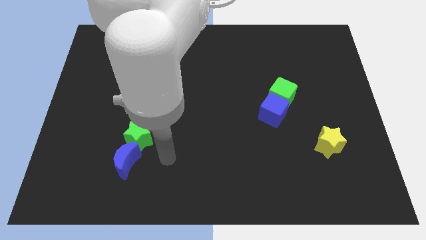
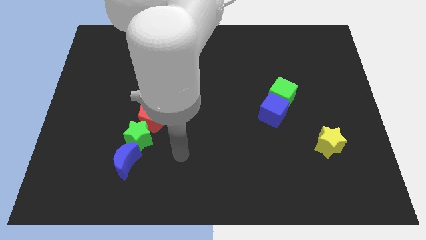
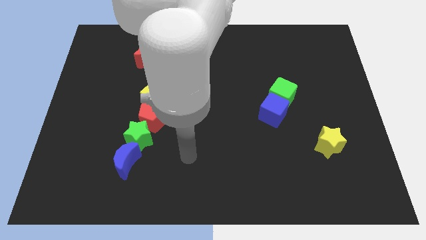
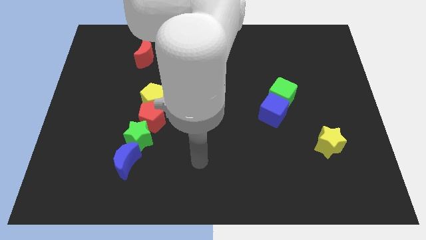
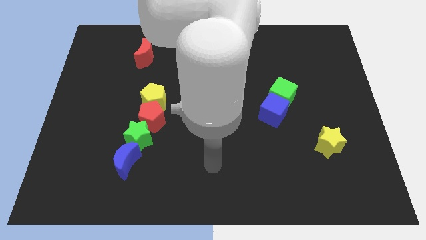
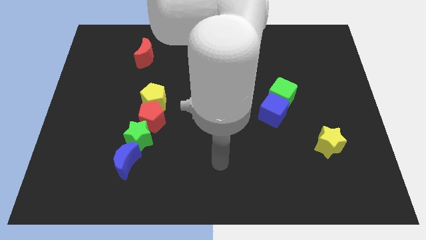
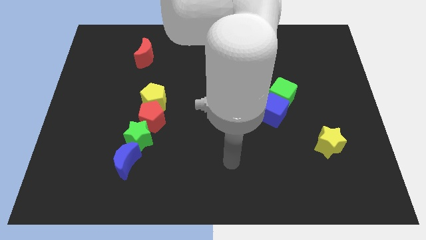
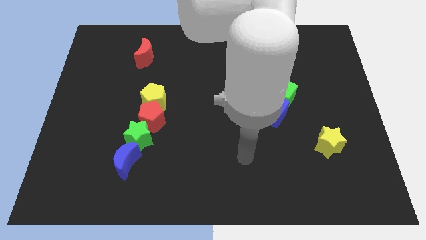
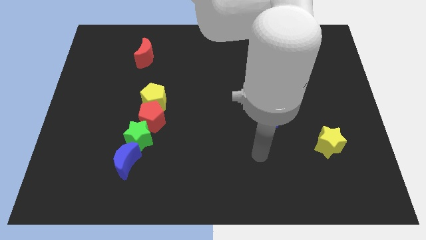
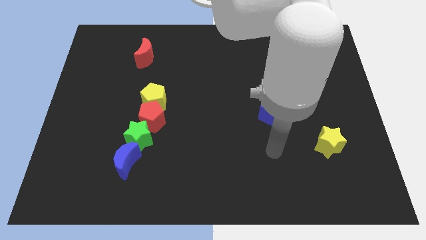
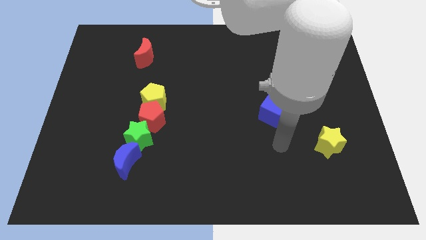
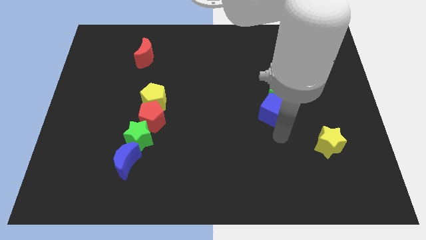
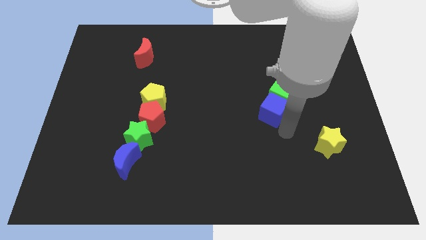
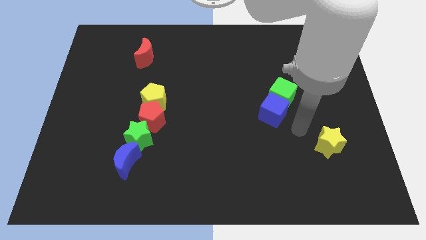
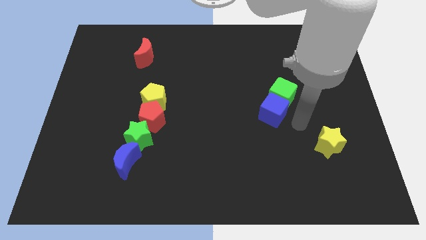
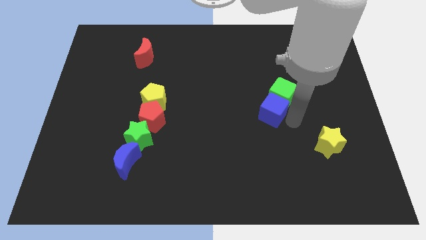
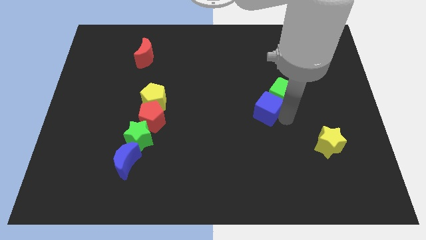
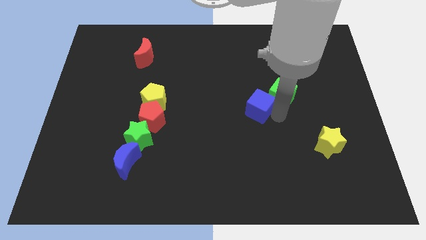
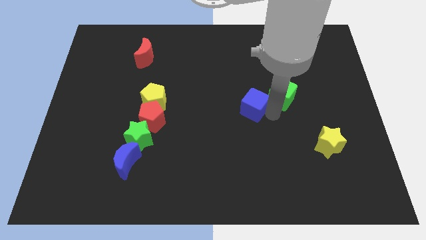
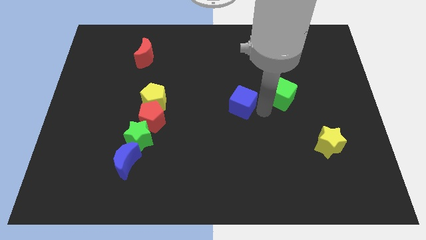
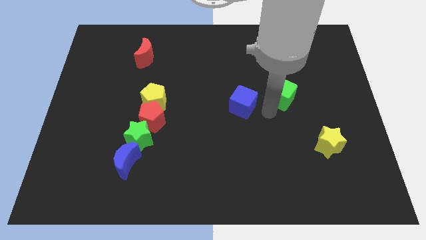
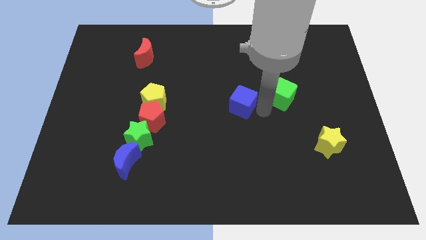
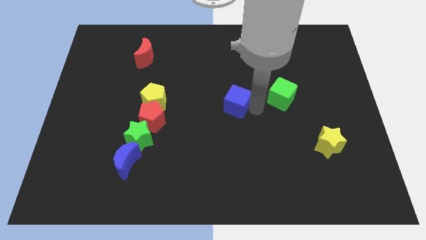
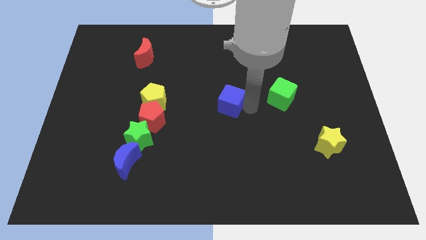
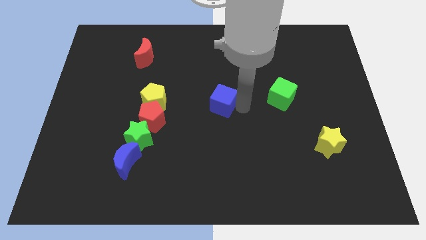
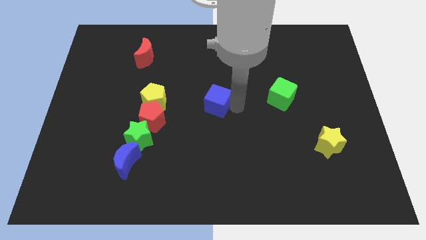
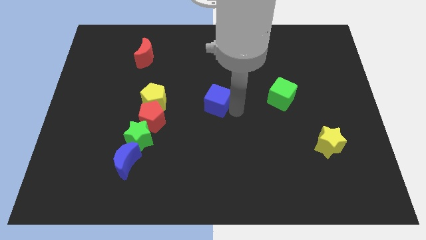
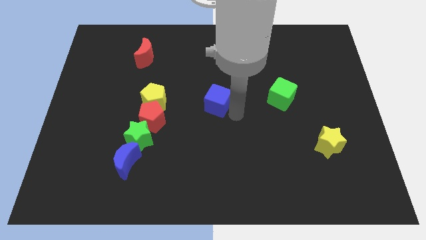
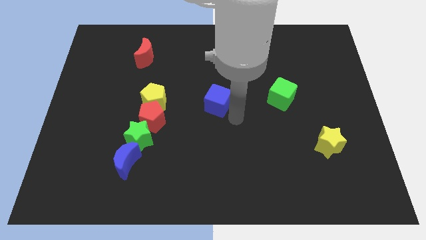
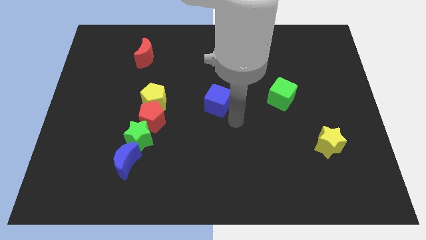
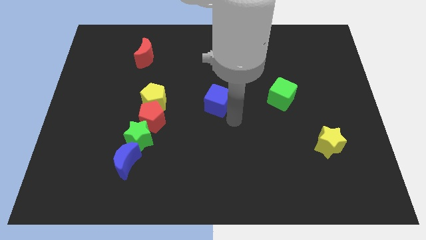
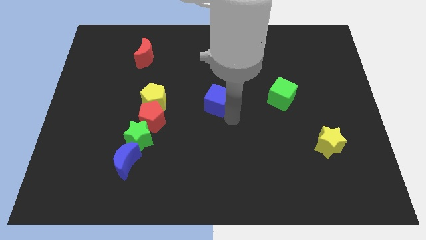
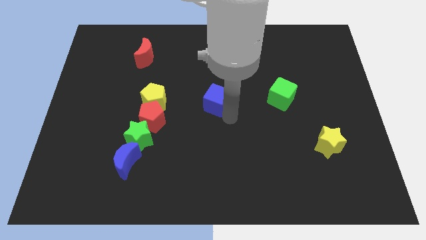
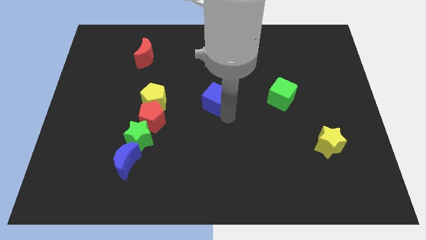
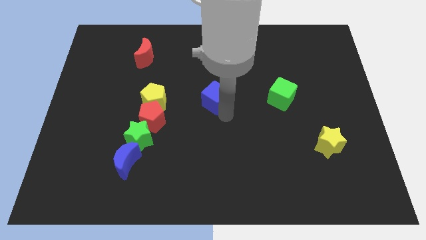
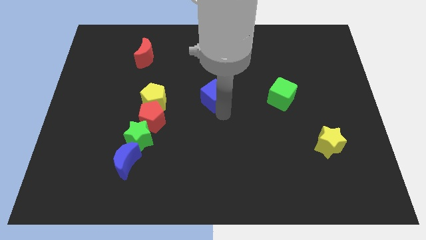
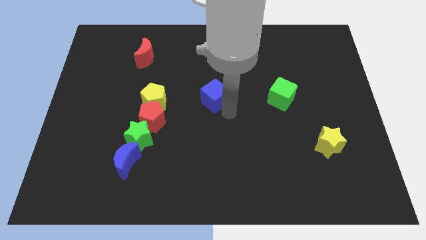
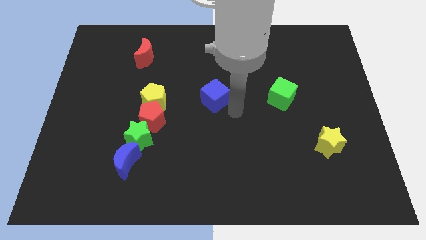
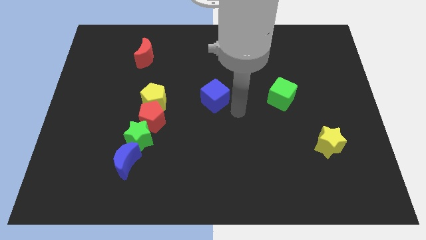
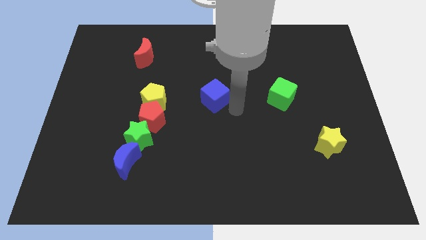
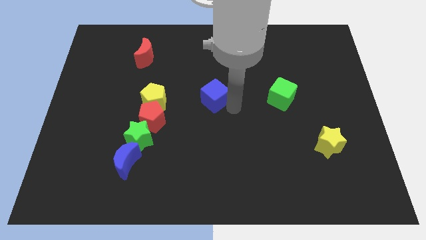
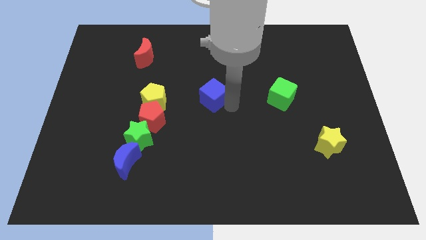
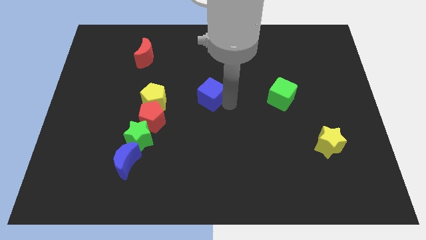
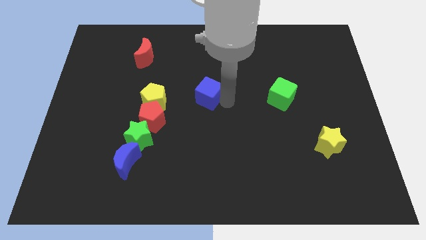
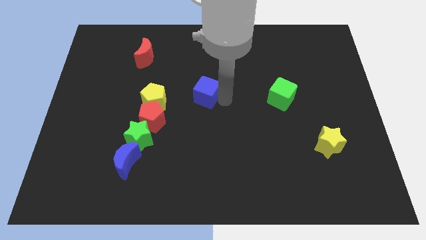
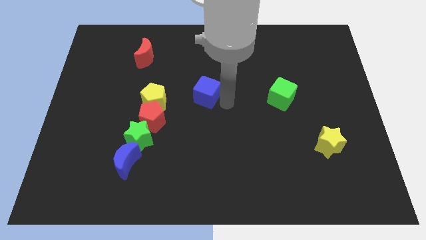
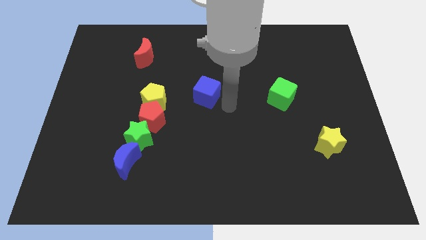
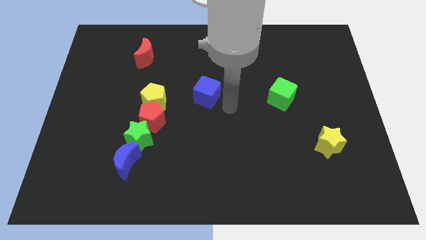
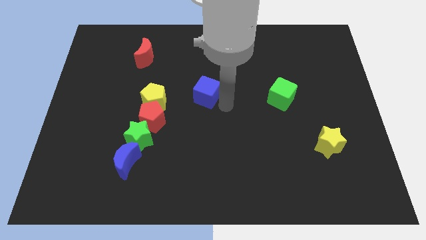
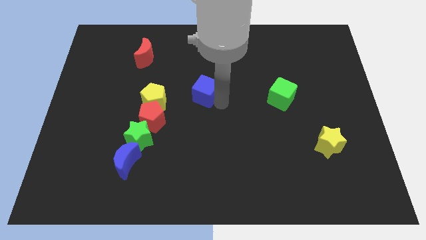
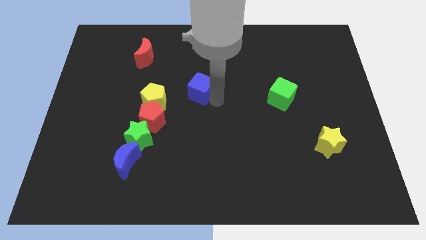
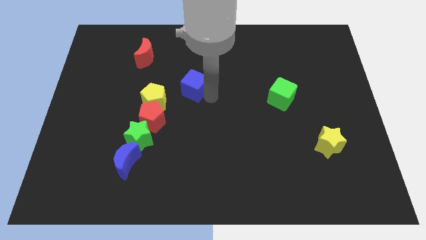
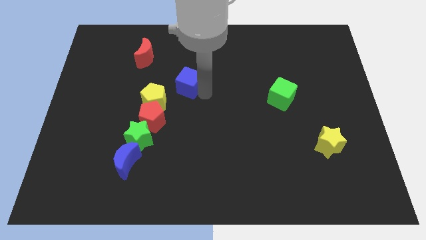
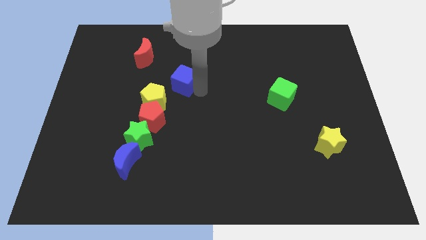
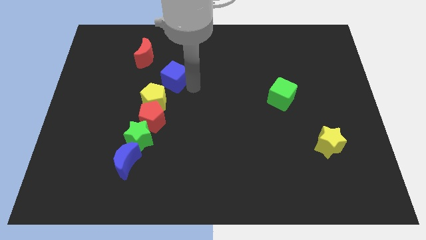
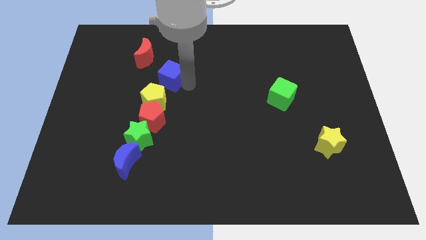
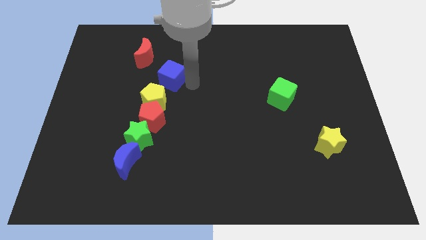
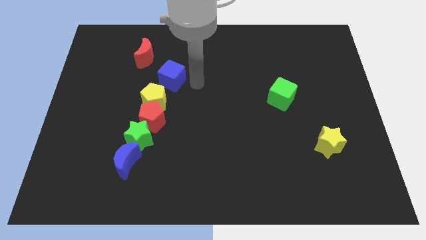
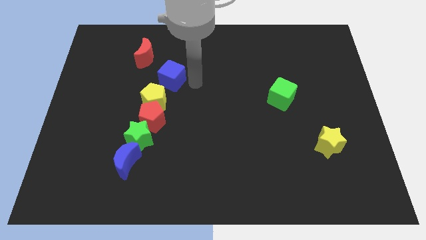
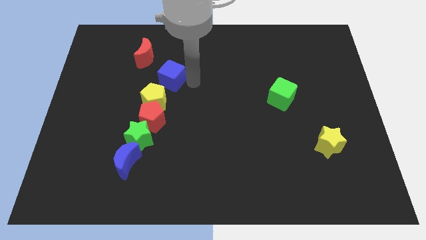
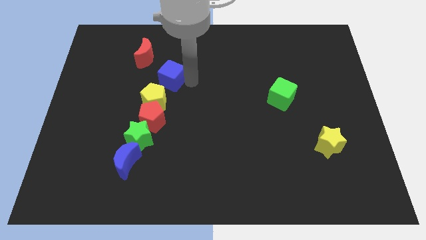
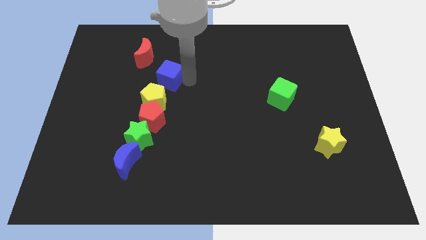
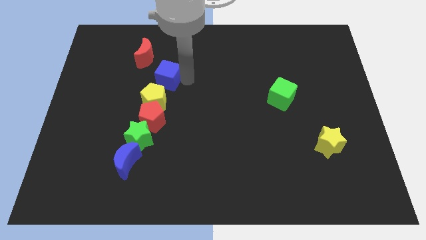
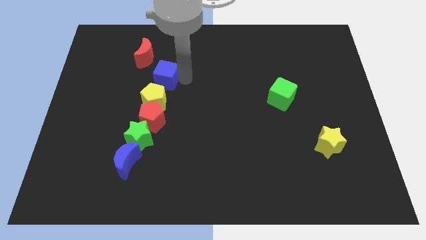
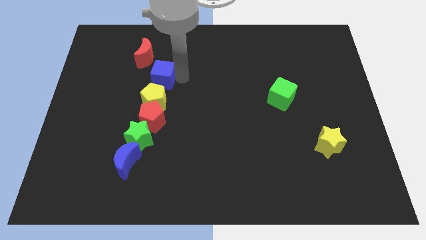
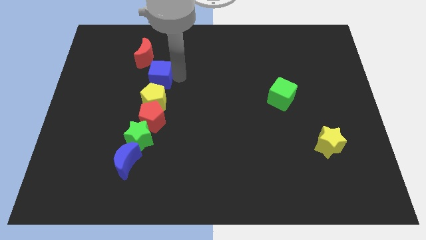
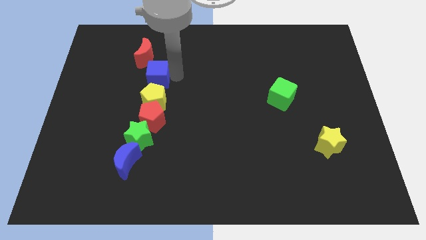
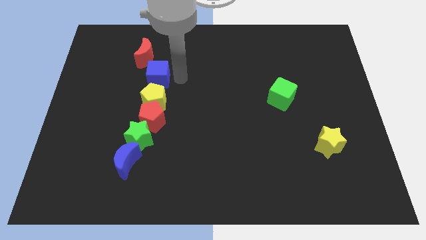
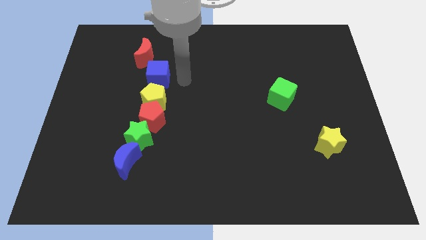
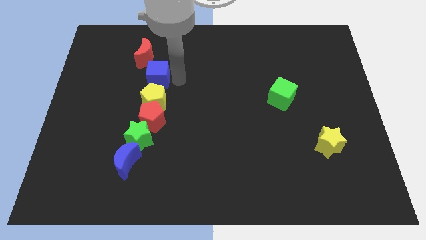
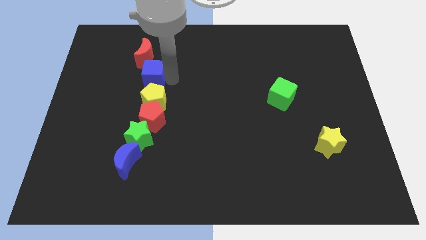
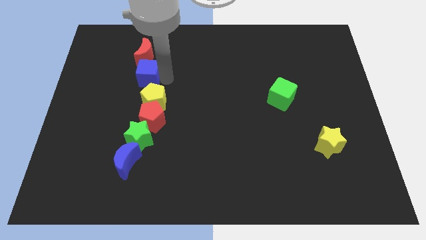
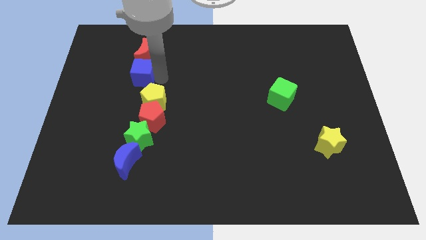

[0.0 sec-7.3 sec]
put the blue cube to the bottom left of the red moon
